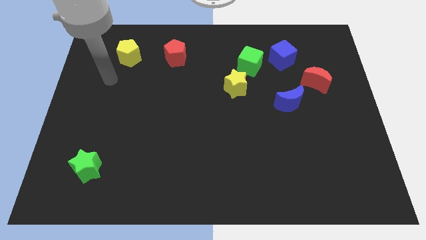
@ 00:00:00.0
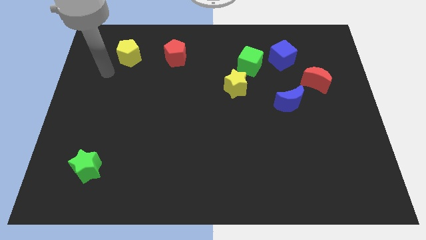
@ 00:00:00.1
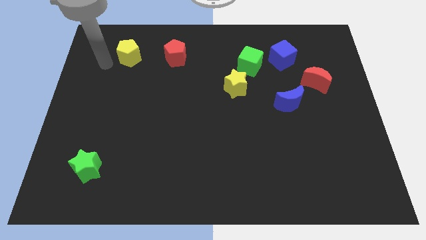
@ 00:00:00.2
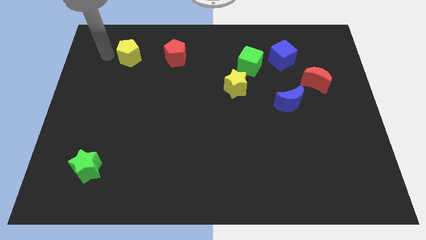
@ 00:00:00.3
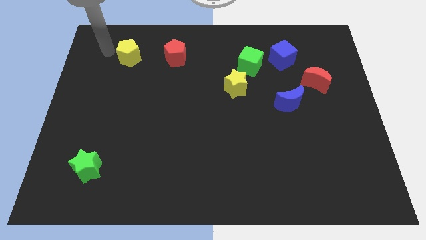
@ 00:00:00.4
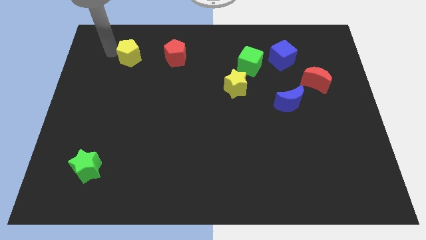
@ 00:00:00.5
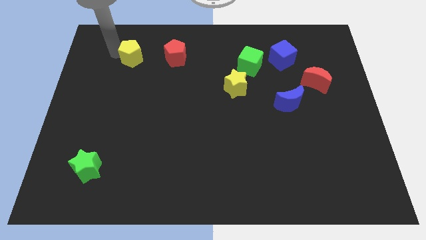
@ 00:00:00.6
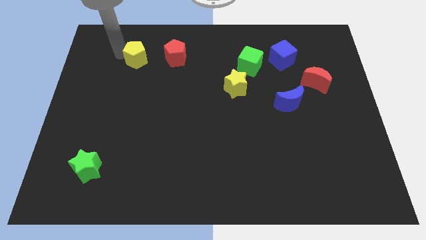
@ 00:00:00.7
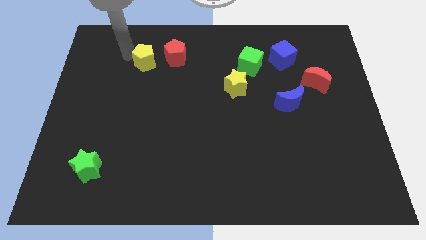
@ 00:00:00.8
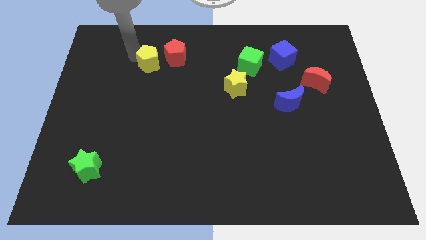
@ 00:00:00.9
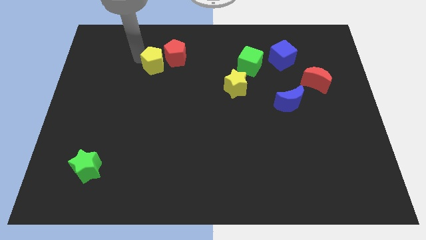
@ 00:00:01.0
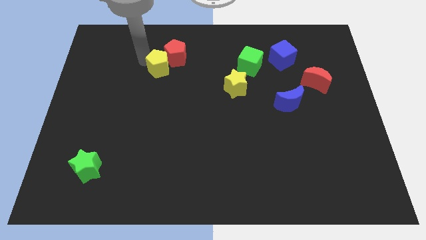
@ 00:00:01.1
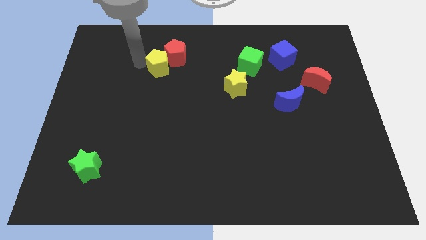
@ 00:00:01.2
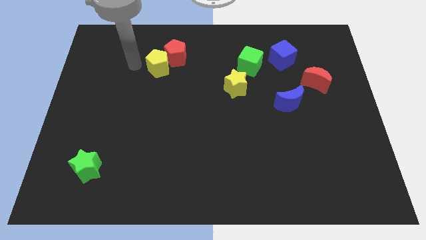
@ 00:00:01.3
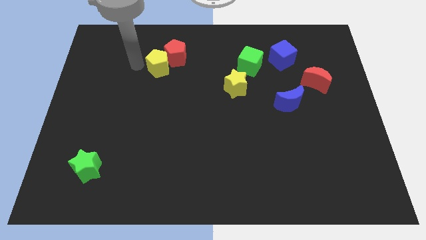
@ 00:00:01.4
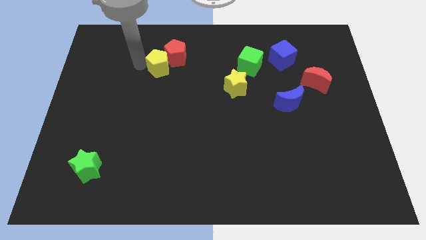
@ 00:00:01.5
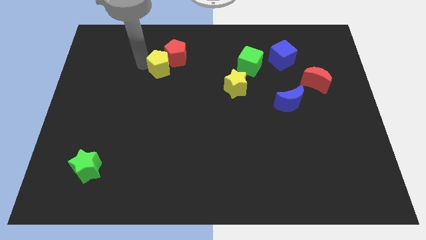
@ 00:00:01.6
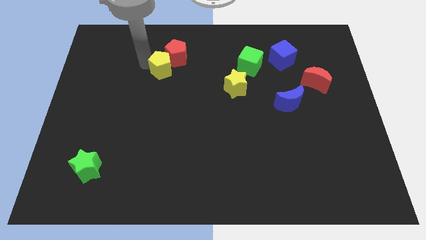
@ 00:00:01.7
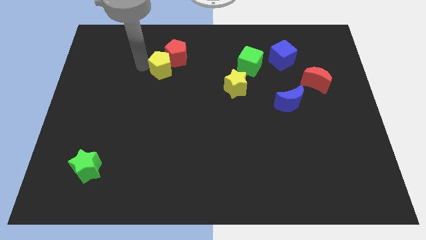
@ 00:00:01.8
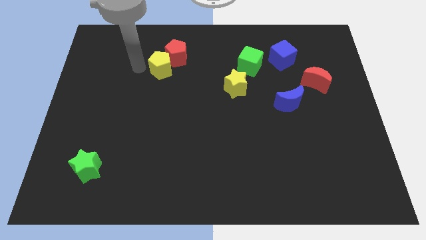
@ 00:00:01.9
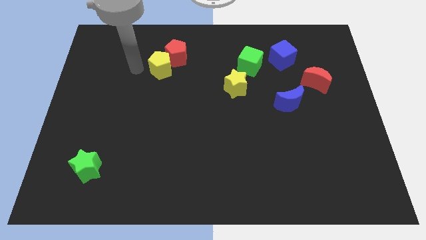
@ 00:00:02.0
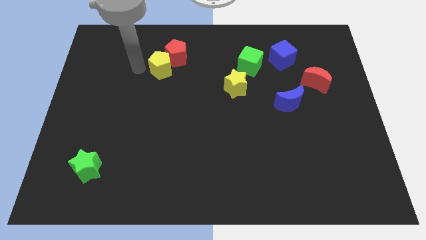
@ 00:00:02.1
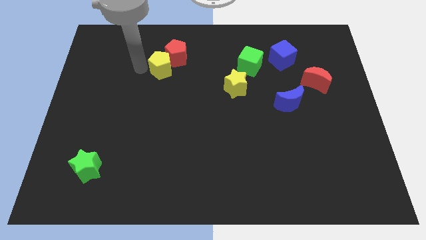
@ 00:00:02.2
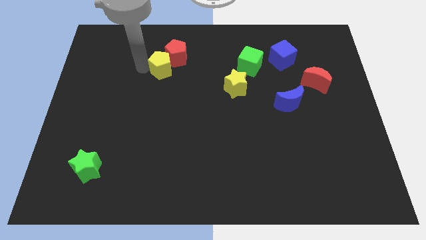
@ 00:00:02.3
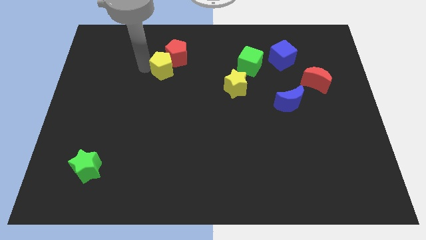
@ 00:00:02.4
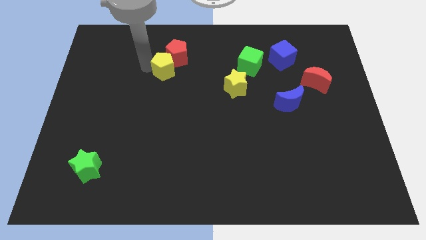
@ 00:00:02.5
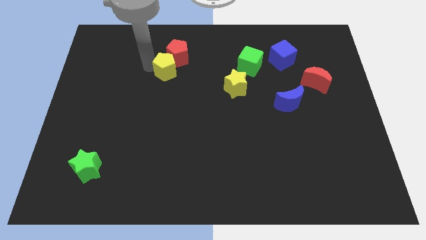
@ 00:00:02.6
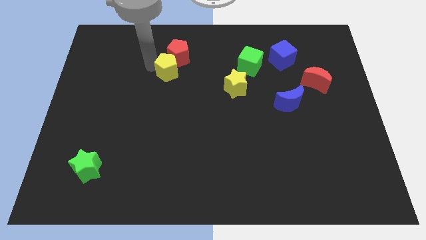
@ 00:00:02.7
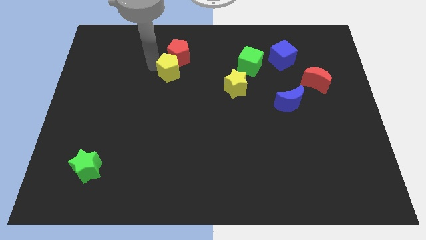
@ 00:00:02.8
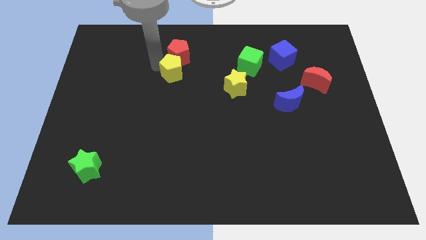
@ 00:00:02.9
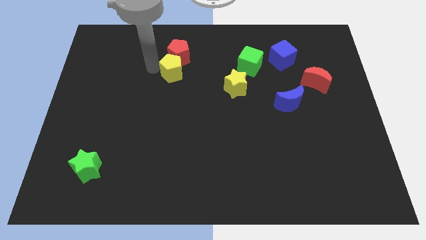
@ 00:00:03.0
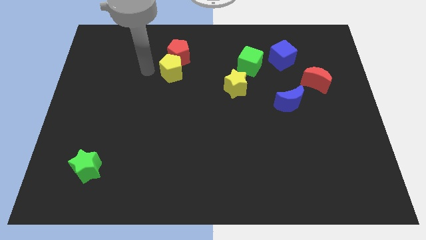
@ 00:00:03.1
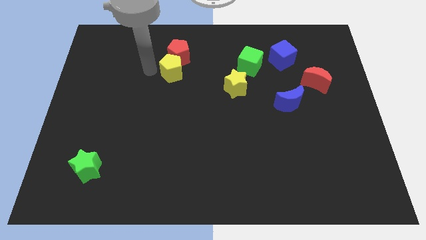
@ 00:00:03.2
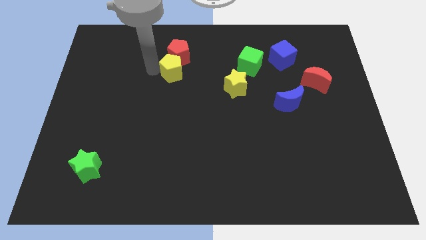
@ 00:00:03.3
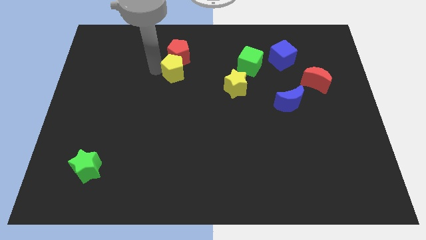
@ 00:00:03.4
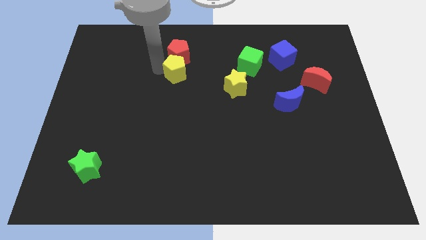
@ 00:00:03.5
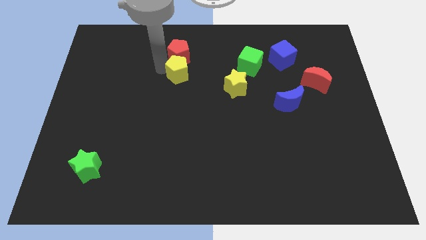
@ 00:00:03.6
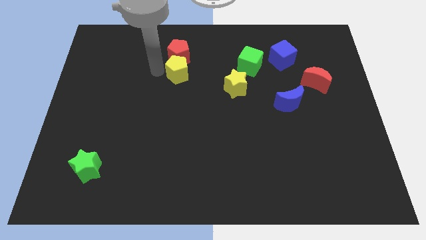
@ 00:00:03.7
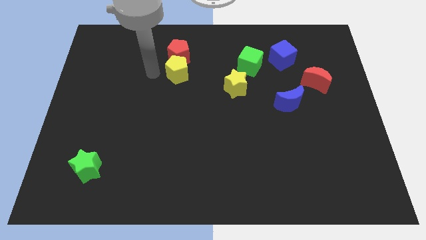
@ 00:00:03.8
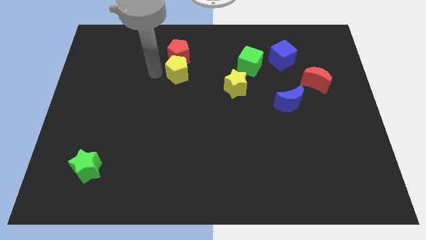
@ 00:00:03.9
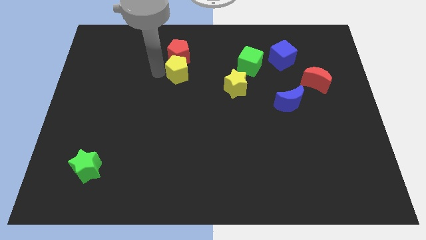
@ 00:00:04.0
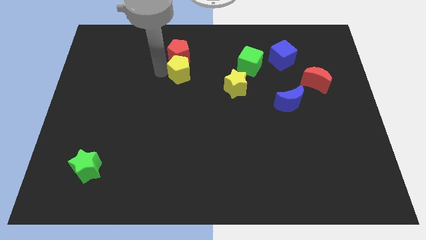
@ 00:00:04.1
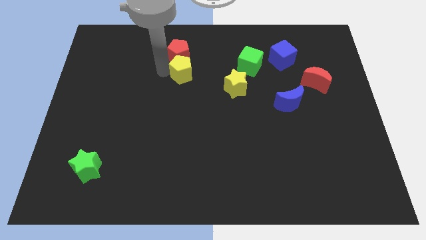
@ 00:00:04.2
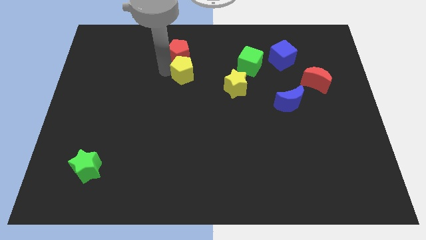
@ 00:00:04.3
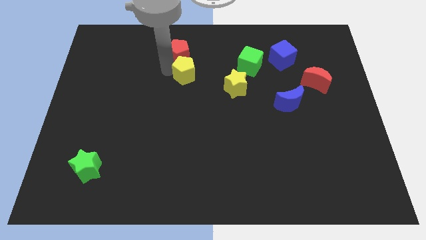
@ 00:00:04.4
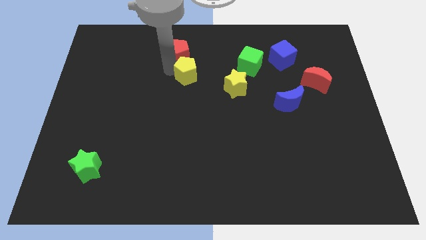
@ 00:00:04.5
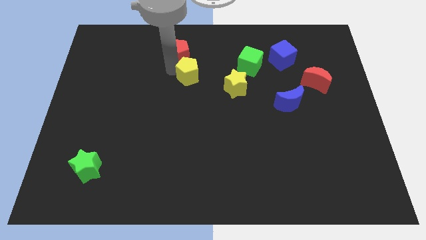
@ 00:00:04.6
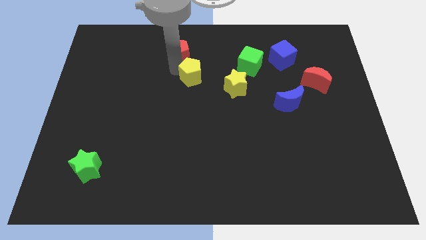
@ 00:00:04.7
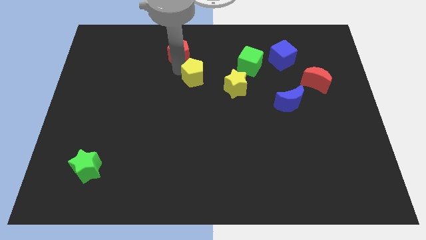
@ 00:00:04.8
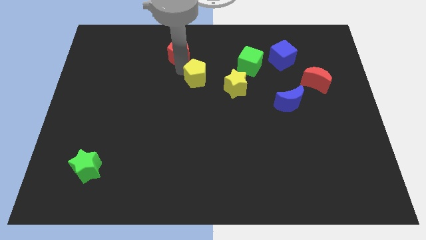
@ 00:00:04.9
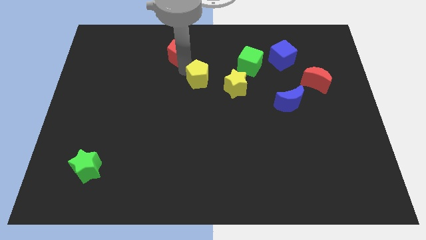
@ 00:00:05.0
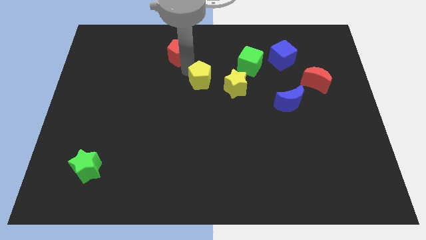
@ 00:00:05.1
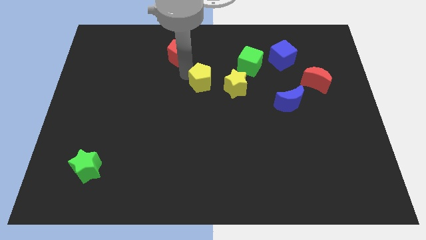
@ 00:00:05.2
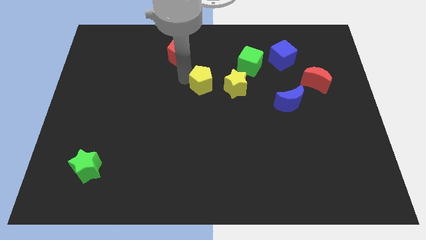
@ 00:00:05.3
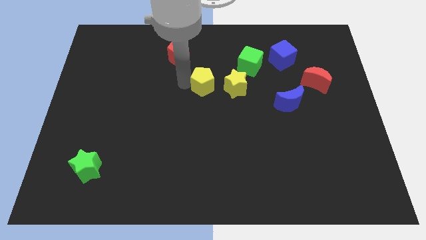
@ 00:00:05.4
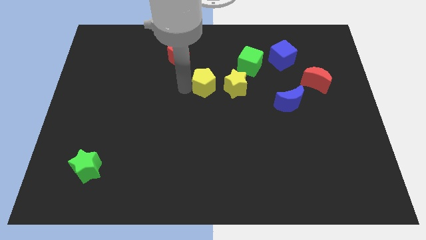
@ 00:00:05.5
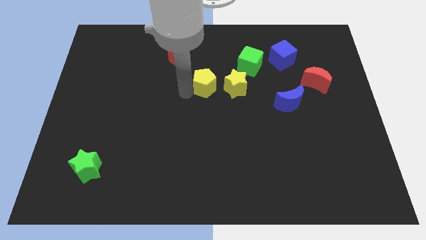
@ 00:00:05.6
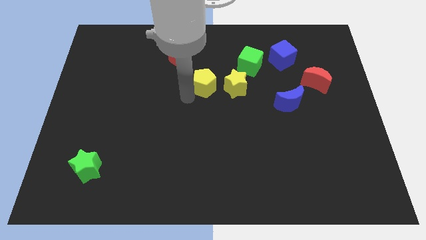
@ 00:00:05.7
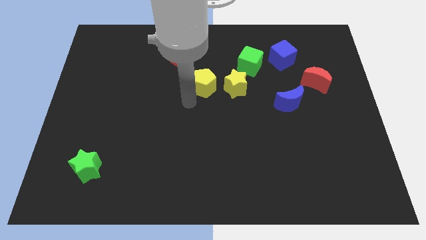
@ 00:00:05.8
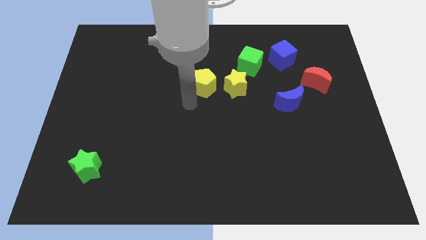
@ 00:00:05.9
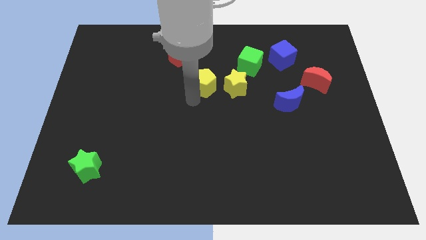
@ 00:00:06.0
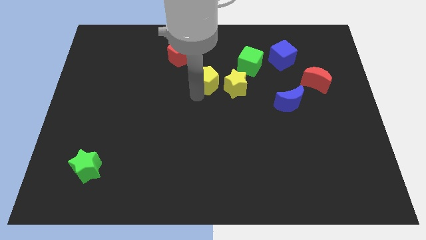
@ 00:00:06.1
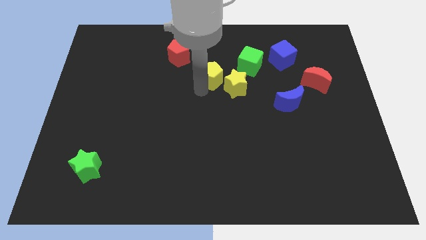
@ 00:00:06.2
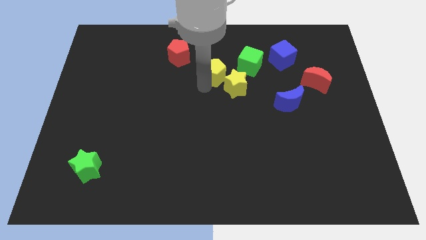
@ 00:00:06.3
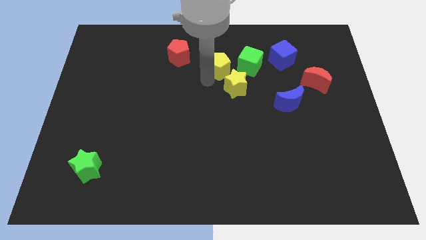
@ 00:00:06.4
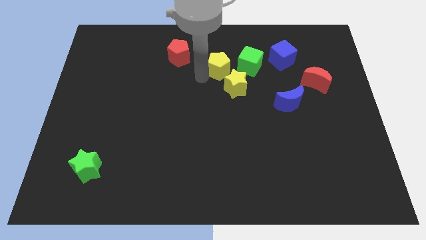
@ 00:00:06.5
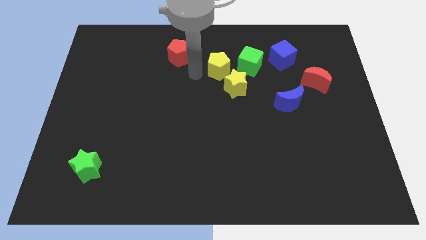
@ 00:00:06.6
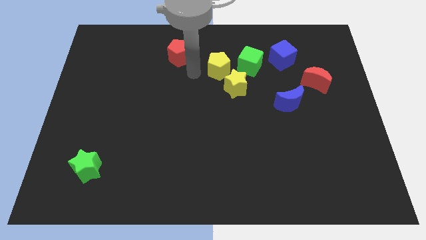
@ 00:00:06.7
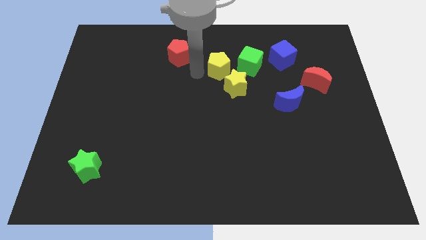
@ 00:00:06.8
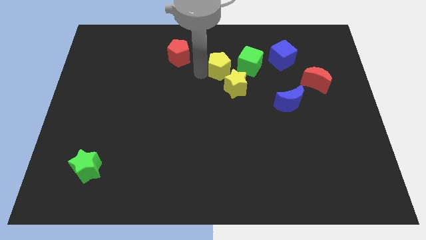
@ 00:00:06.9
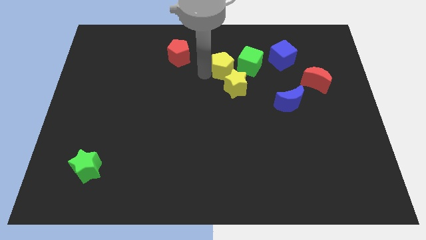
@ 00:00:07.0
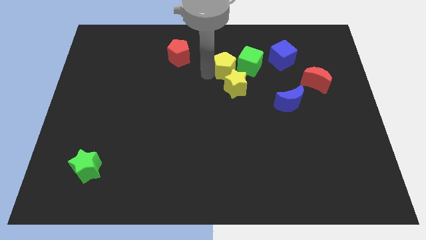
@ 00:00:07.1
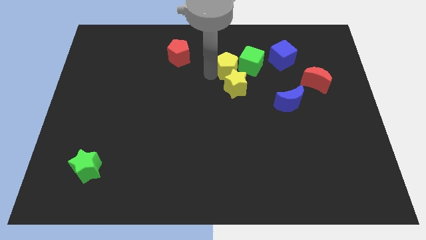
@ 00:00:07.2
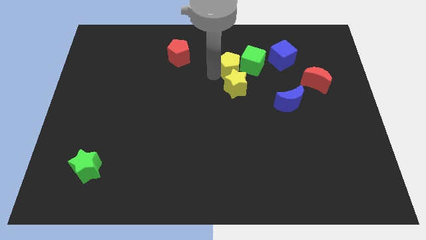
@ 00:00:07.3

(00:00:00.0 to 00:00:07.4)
push the yellow pentagon close to the green cube

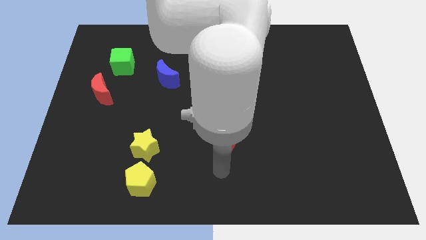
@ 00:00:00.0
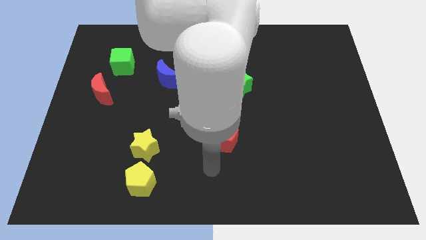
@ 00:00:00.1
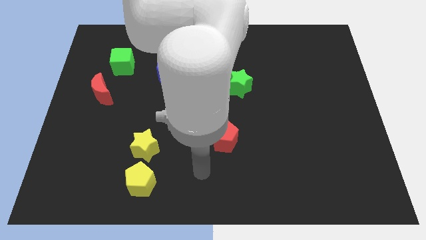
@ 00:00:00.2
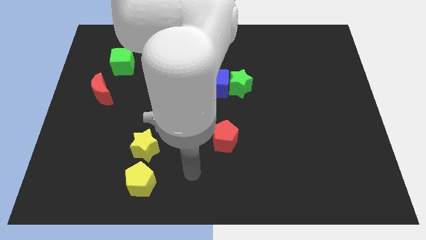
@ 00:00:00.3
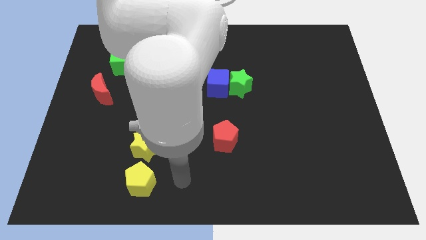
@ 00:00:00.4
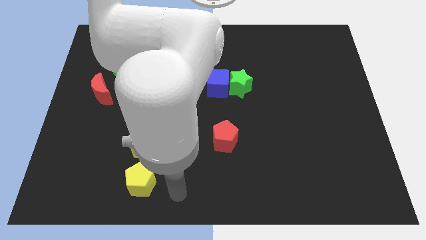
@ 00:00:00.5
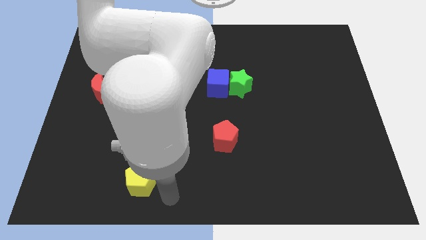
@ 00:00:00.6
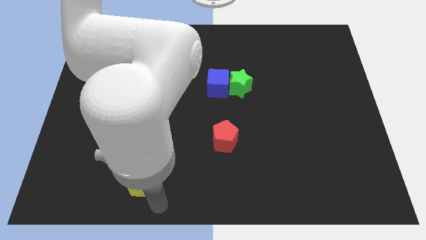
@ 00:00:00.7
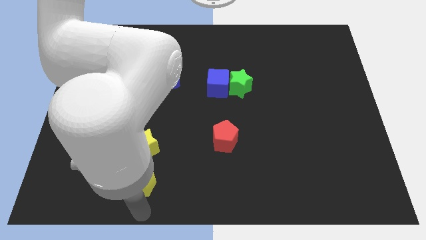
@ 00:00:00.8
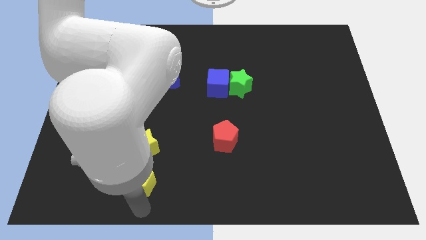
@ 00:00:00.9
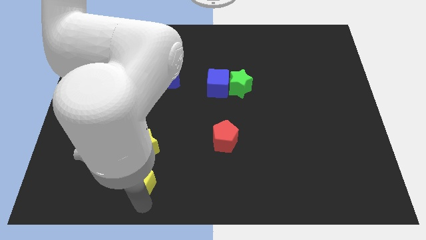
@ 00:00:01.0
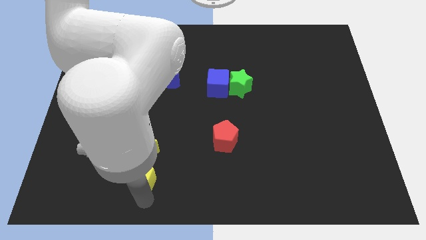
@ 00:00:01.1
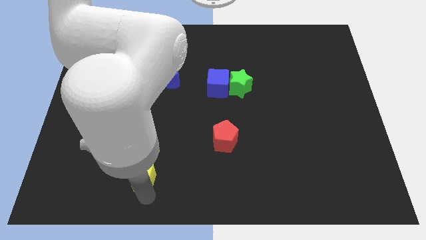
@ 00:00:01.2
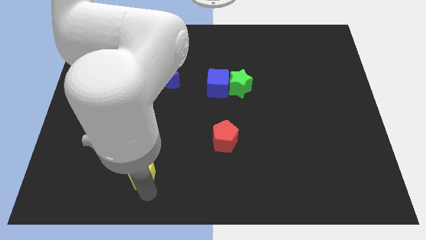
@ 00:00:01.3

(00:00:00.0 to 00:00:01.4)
move the yellow pentagon close to the yellow star
